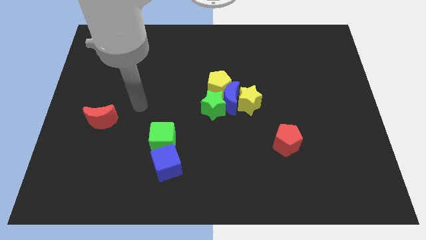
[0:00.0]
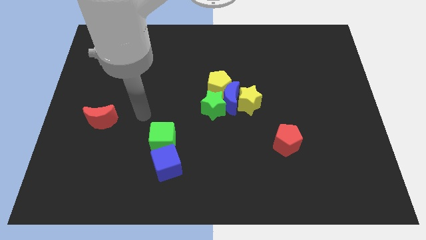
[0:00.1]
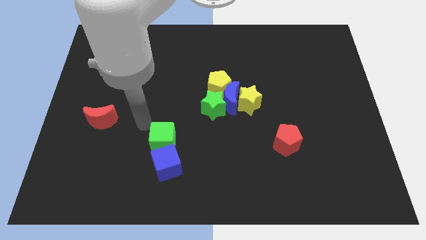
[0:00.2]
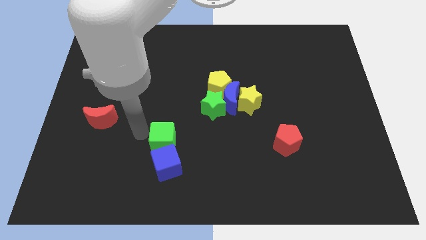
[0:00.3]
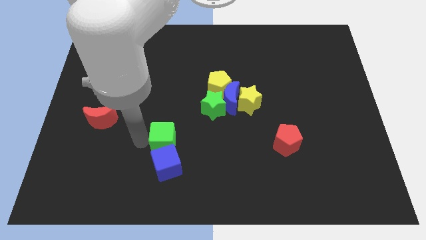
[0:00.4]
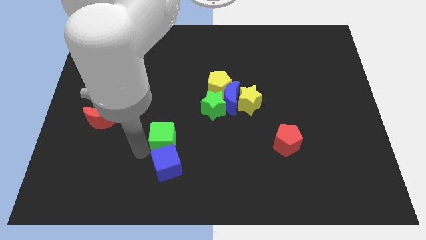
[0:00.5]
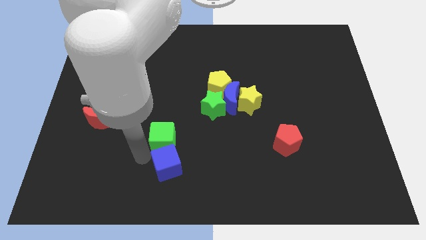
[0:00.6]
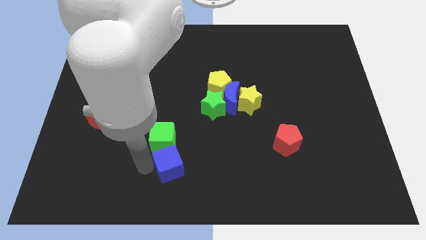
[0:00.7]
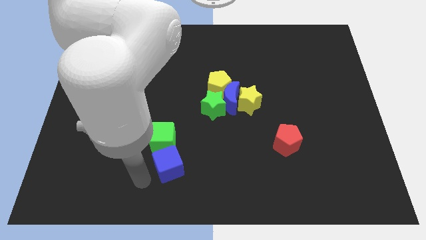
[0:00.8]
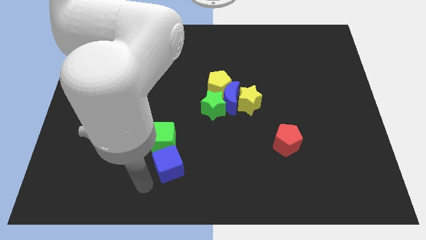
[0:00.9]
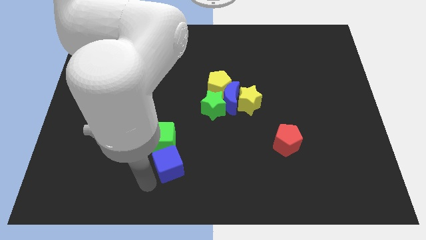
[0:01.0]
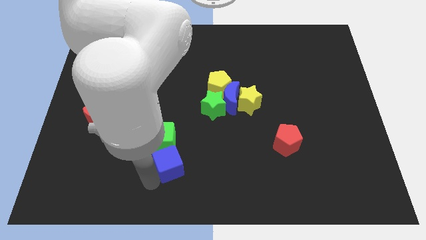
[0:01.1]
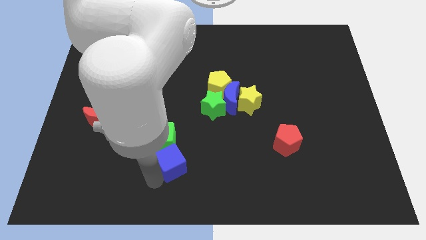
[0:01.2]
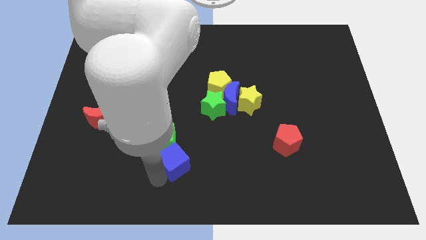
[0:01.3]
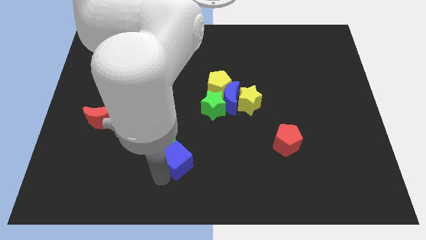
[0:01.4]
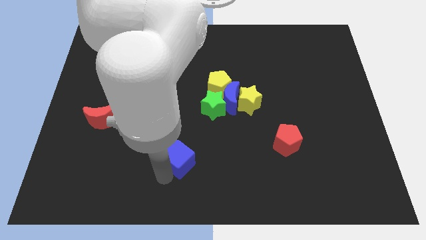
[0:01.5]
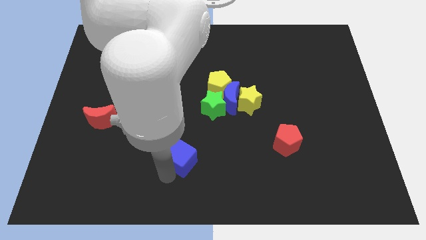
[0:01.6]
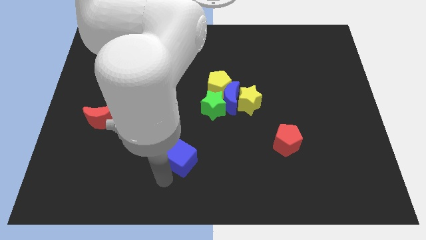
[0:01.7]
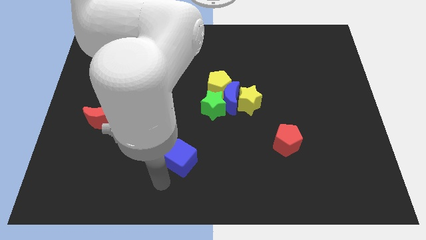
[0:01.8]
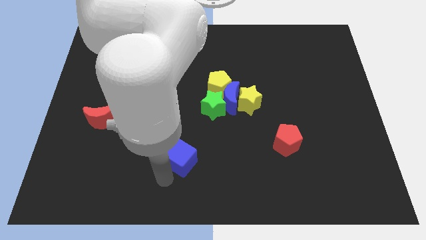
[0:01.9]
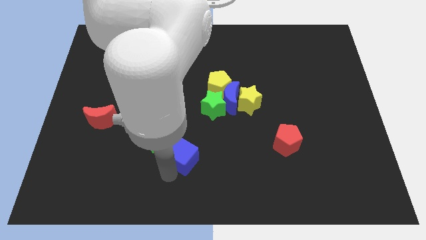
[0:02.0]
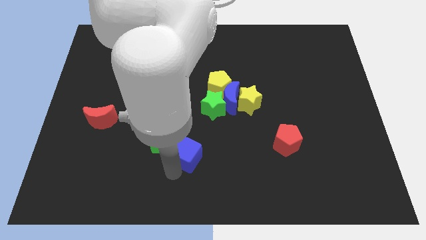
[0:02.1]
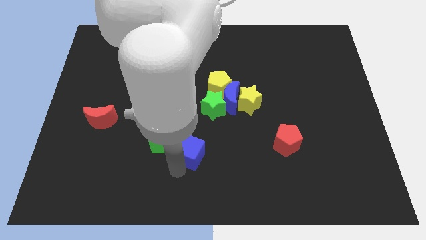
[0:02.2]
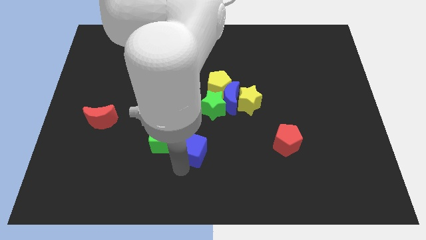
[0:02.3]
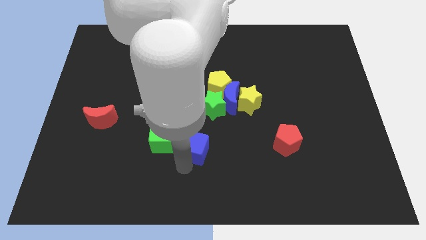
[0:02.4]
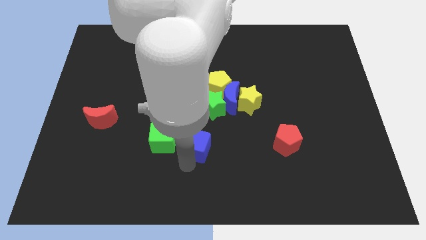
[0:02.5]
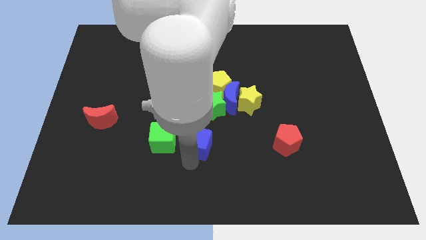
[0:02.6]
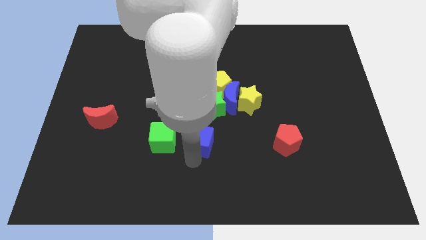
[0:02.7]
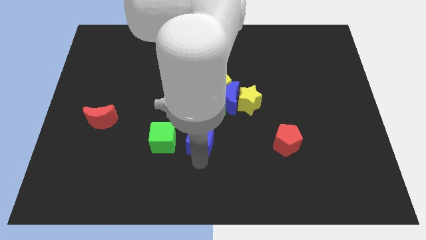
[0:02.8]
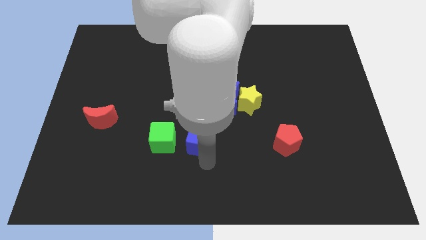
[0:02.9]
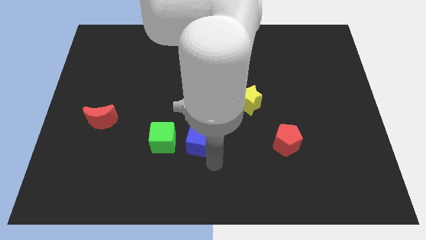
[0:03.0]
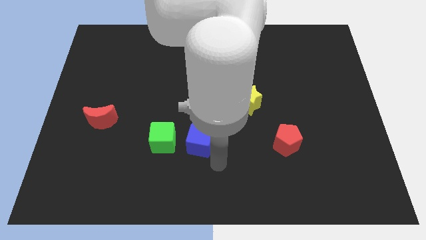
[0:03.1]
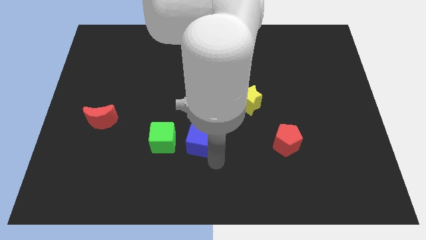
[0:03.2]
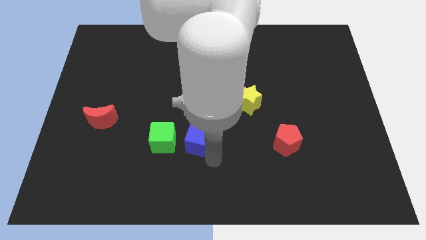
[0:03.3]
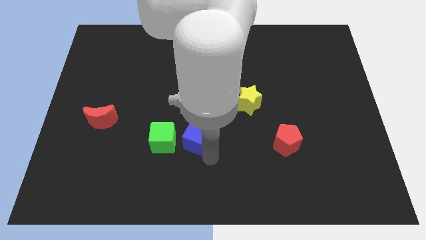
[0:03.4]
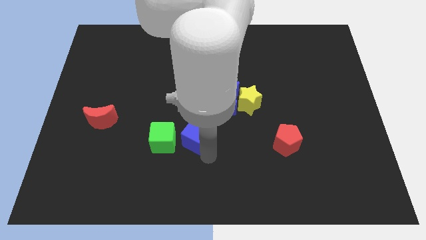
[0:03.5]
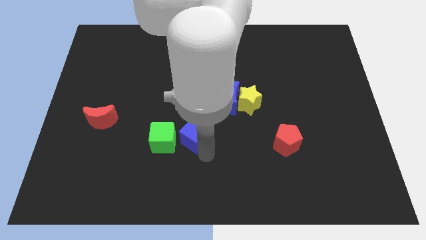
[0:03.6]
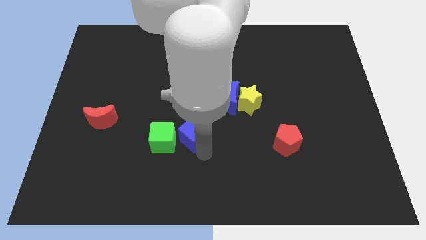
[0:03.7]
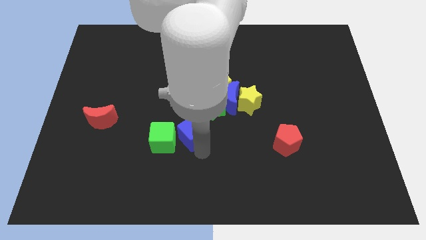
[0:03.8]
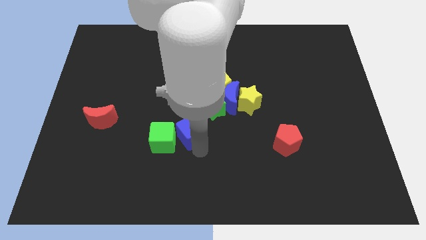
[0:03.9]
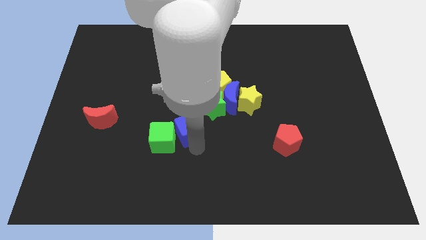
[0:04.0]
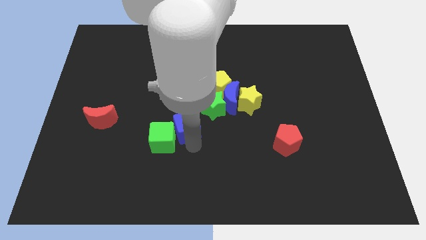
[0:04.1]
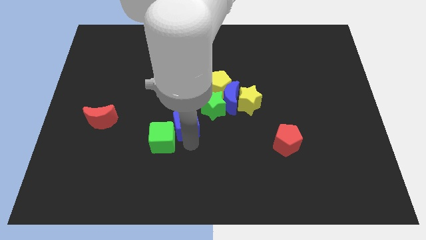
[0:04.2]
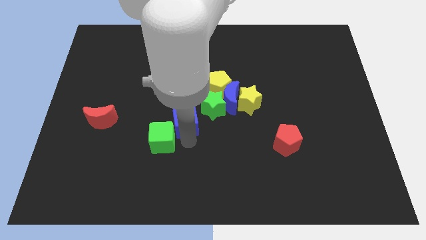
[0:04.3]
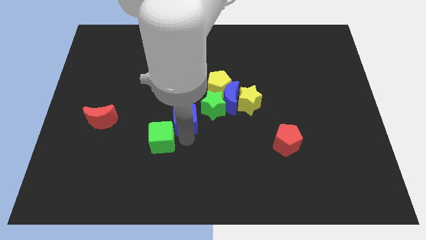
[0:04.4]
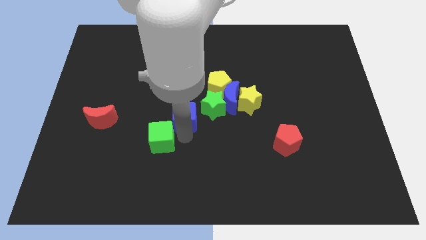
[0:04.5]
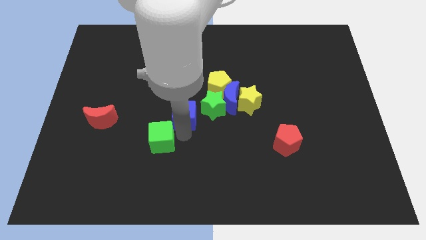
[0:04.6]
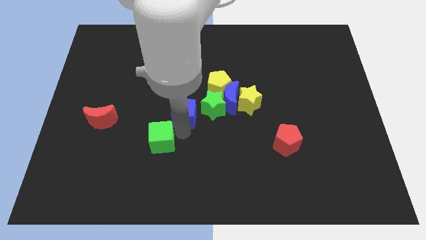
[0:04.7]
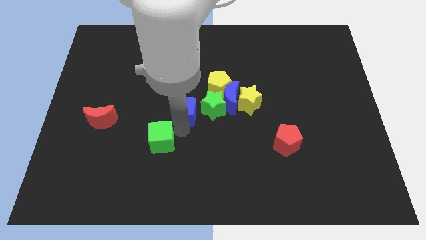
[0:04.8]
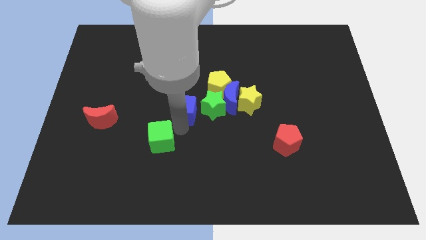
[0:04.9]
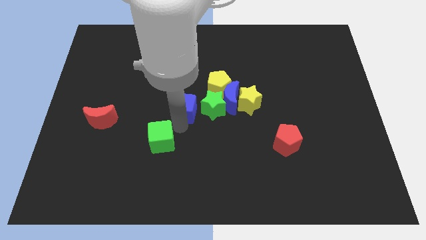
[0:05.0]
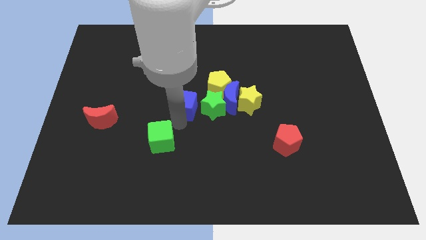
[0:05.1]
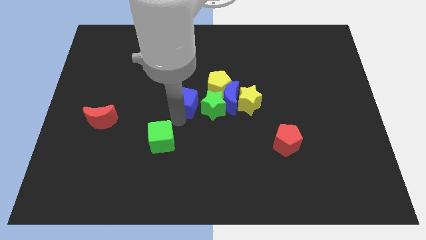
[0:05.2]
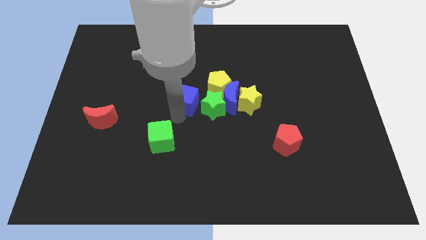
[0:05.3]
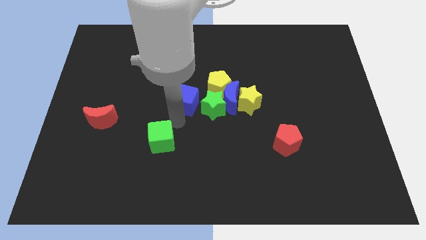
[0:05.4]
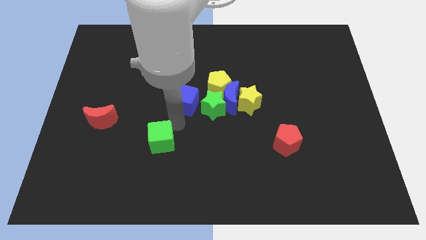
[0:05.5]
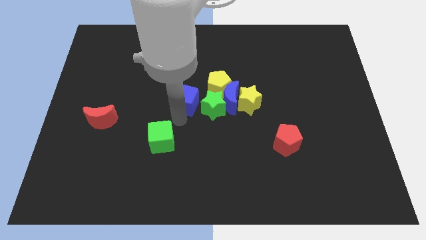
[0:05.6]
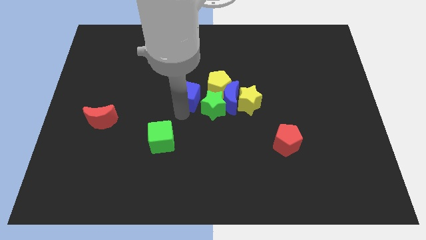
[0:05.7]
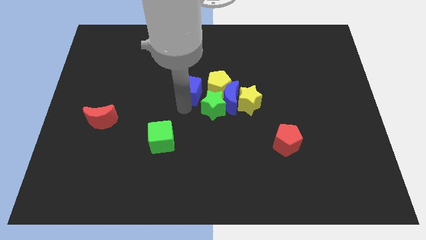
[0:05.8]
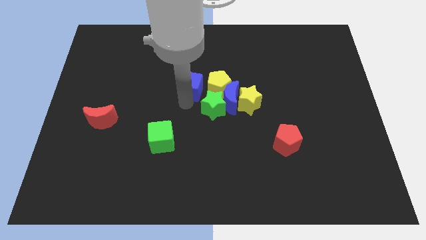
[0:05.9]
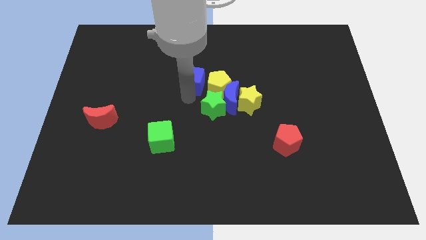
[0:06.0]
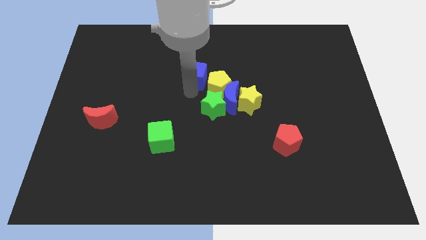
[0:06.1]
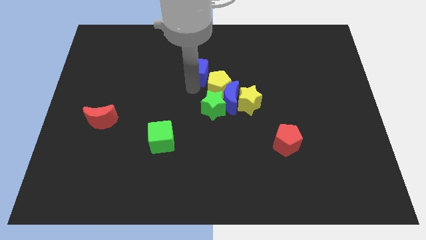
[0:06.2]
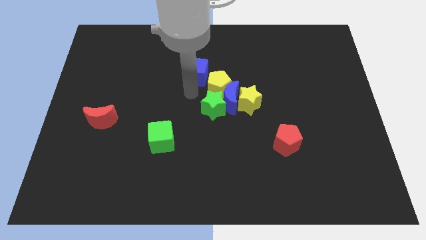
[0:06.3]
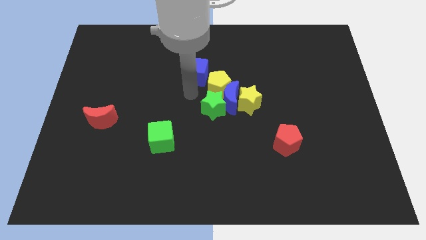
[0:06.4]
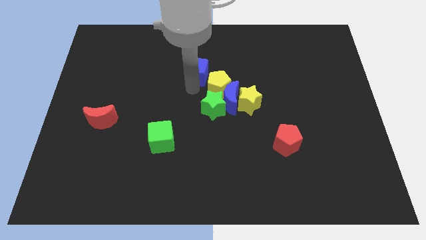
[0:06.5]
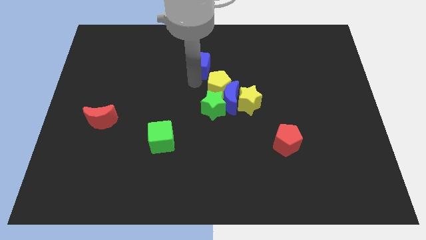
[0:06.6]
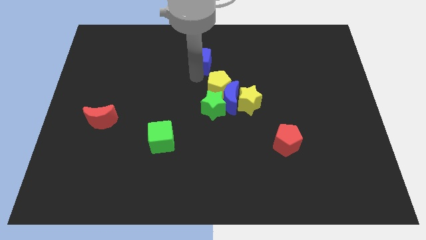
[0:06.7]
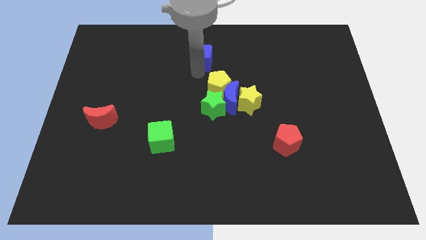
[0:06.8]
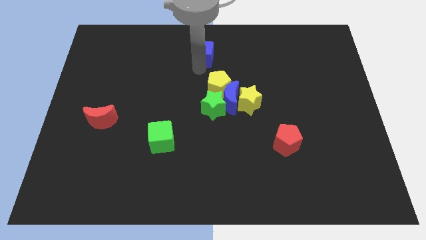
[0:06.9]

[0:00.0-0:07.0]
move the blue cube to the top side
